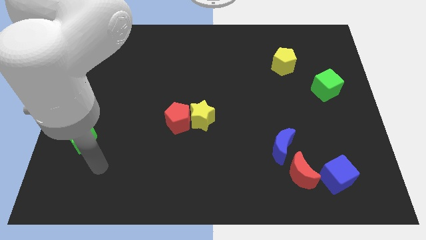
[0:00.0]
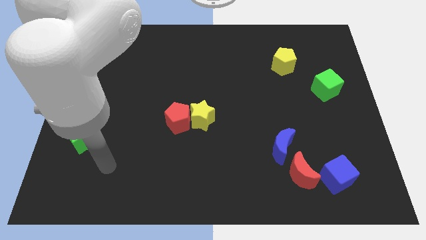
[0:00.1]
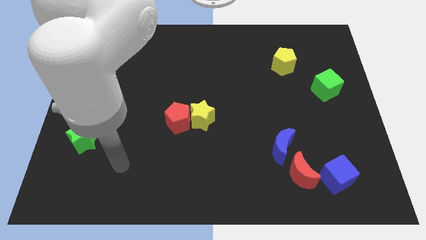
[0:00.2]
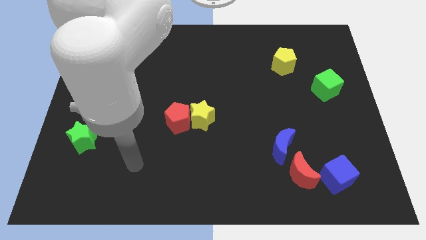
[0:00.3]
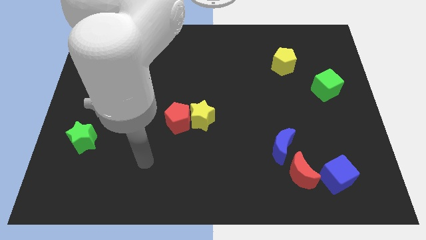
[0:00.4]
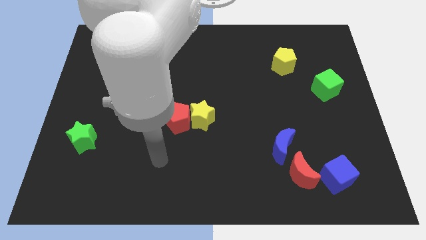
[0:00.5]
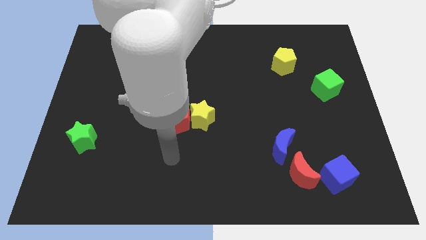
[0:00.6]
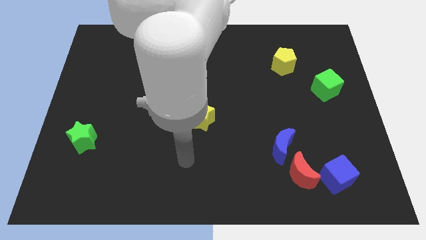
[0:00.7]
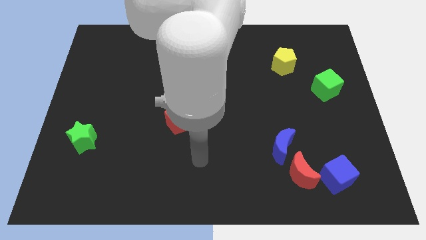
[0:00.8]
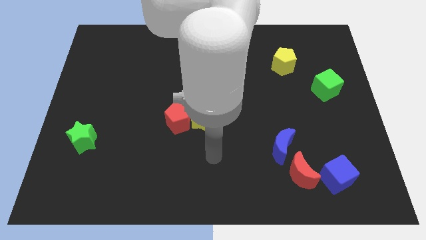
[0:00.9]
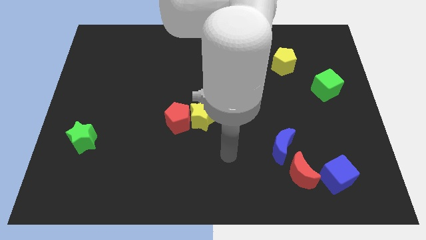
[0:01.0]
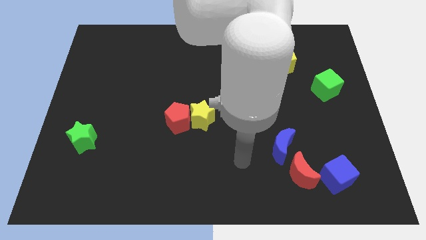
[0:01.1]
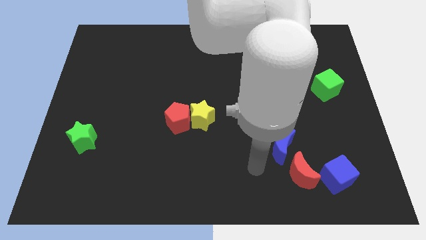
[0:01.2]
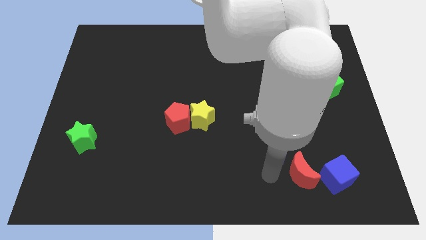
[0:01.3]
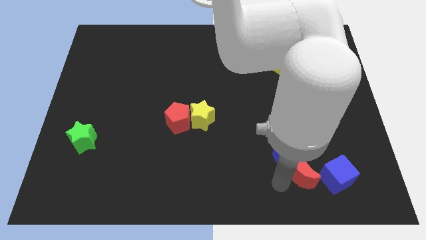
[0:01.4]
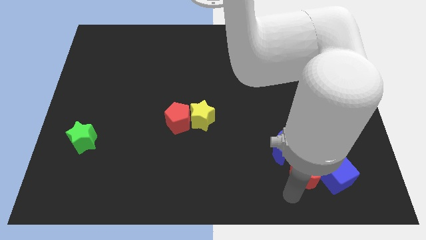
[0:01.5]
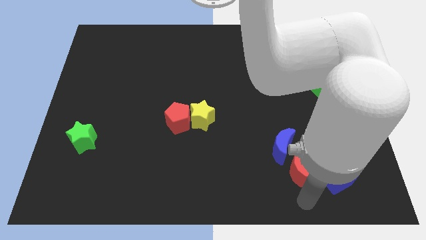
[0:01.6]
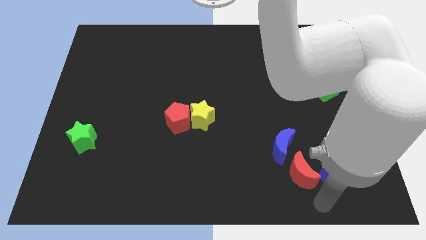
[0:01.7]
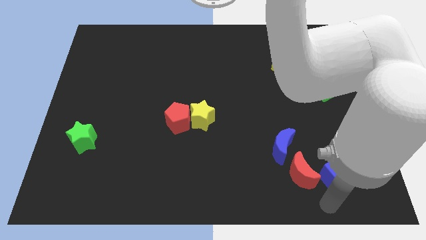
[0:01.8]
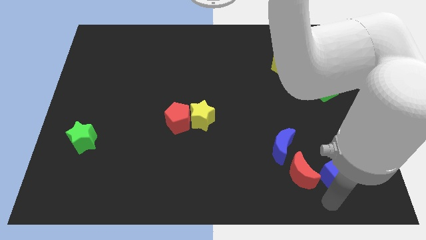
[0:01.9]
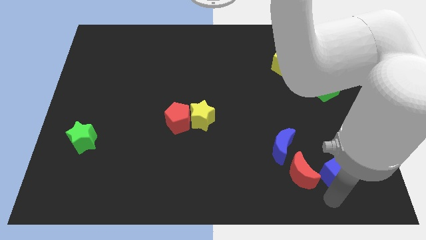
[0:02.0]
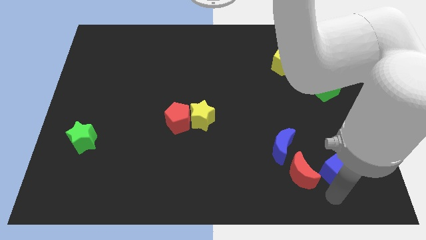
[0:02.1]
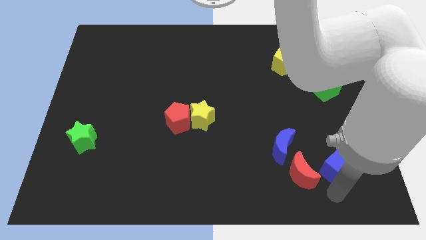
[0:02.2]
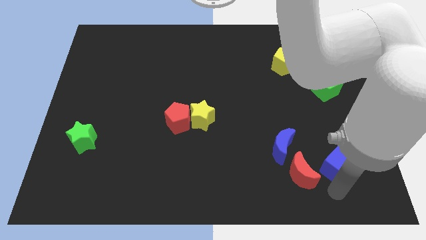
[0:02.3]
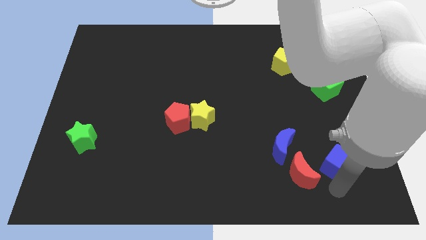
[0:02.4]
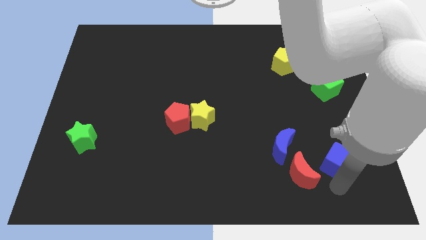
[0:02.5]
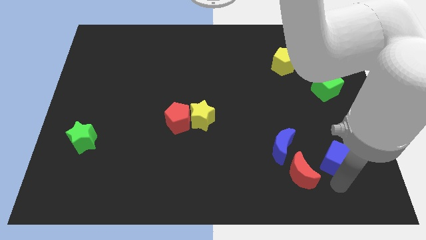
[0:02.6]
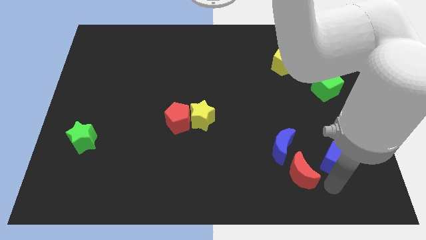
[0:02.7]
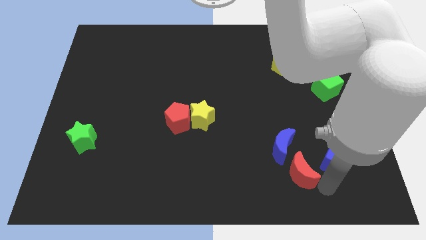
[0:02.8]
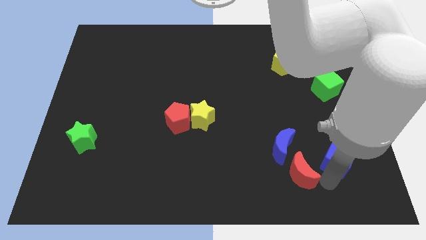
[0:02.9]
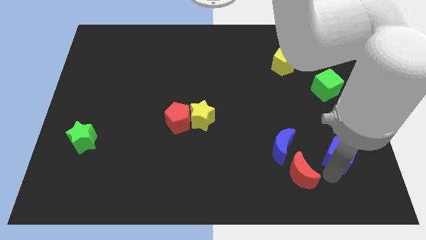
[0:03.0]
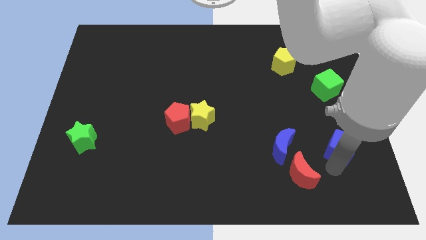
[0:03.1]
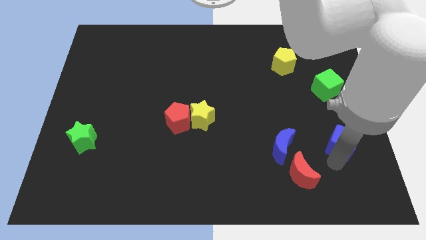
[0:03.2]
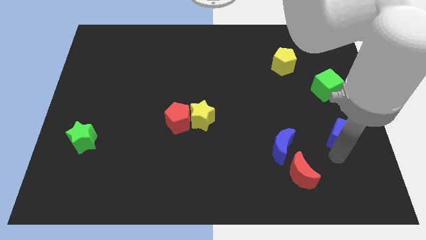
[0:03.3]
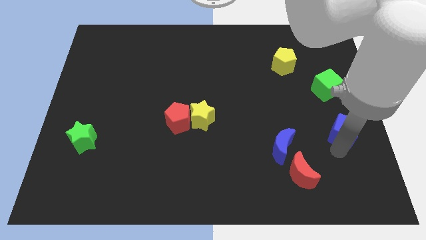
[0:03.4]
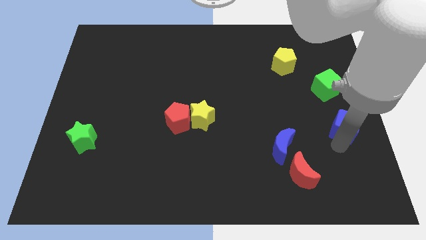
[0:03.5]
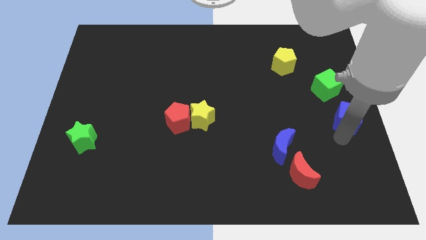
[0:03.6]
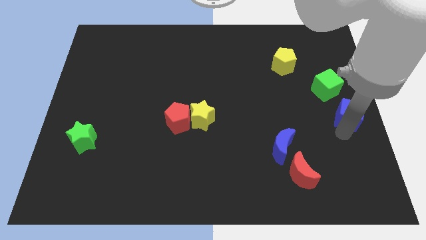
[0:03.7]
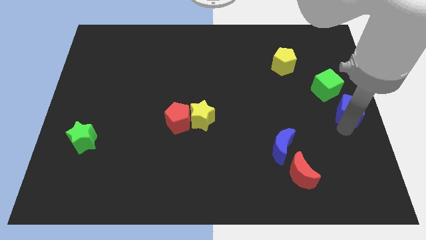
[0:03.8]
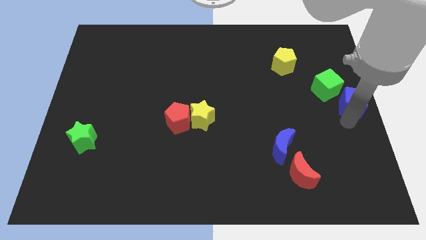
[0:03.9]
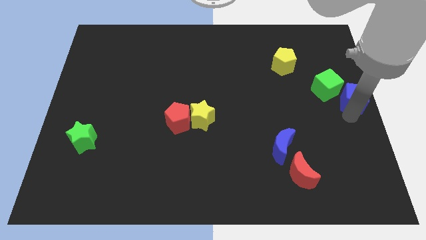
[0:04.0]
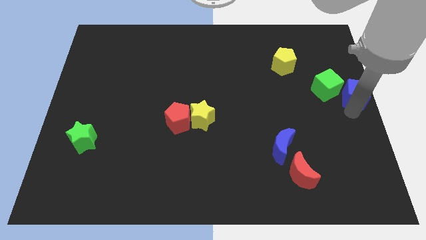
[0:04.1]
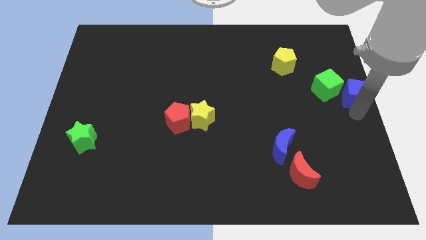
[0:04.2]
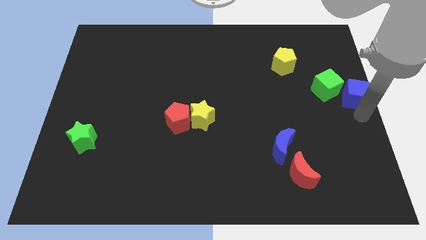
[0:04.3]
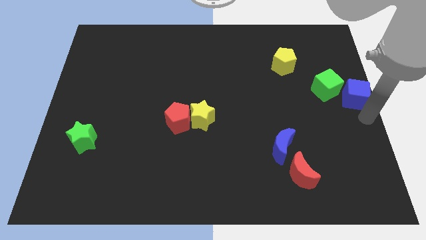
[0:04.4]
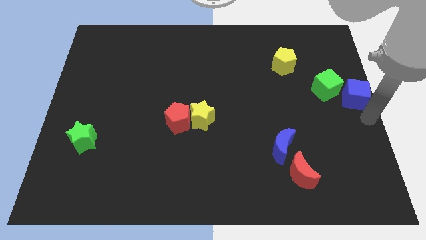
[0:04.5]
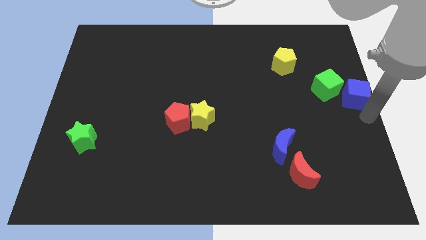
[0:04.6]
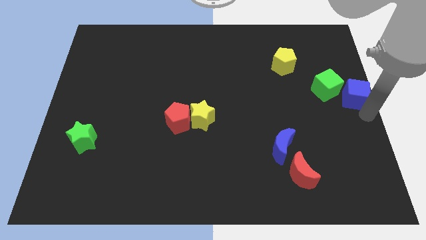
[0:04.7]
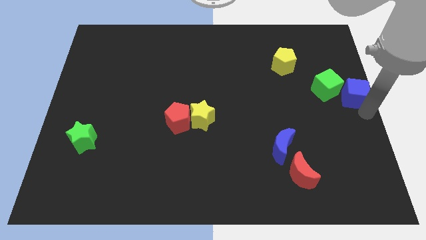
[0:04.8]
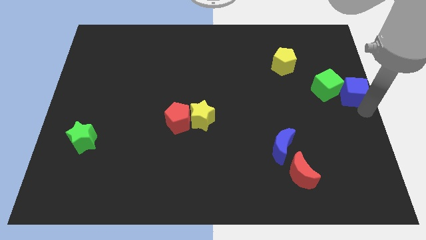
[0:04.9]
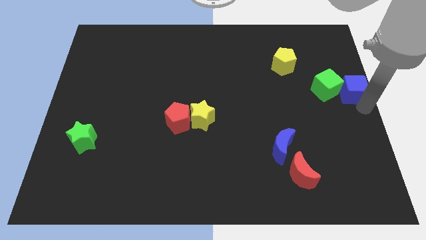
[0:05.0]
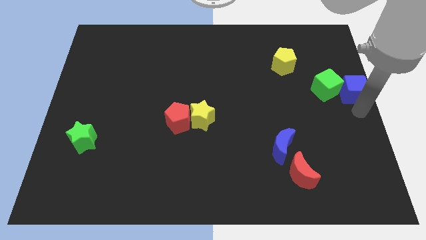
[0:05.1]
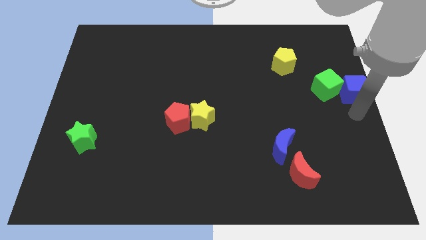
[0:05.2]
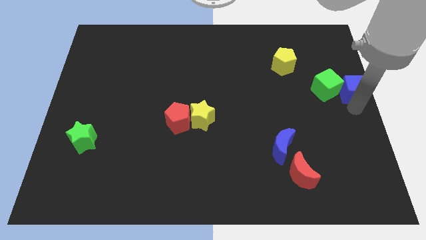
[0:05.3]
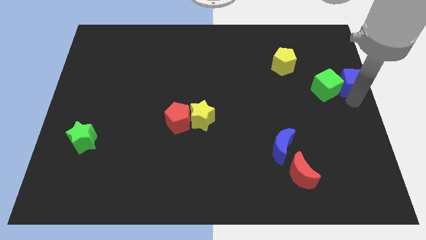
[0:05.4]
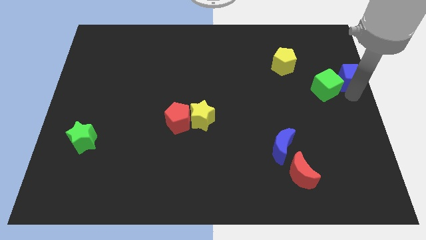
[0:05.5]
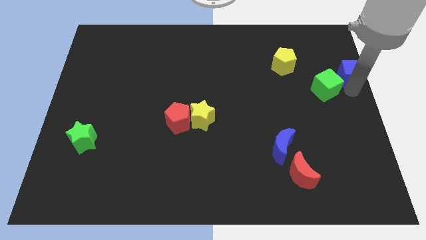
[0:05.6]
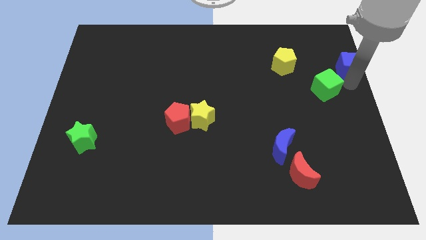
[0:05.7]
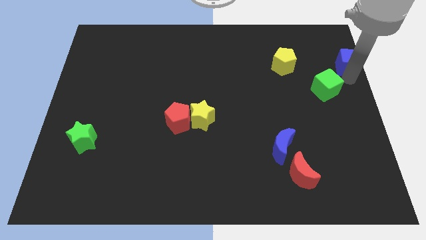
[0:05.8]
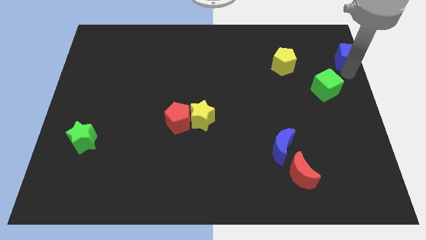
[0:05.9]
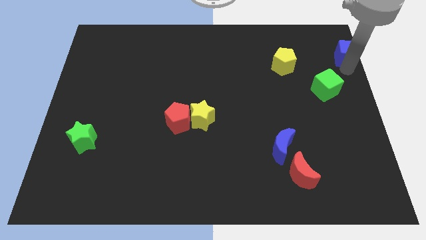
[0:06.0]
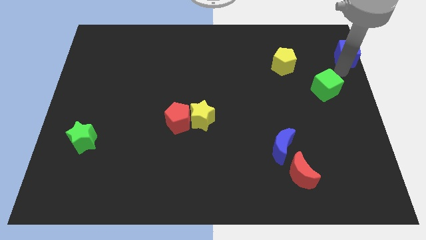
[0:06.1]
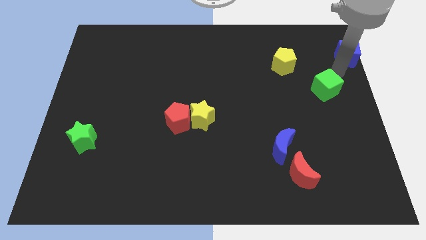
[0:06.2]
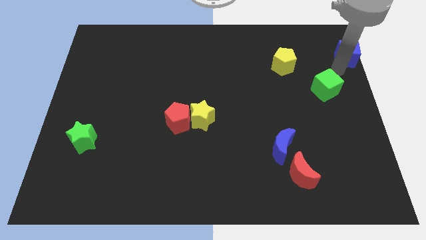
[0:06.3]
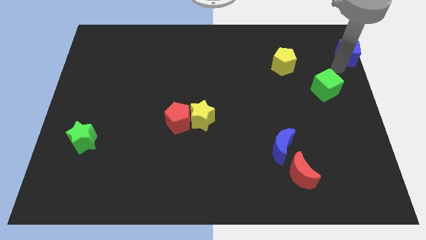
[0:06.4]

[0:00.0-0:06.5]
push the blue cube to the top right corner
